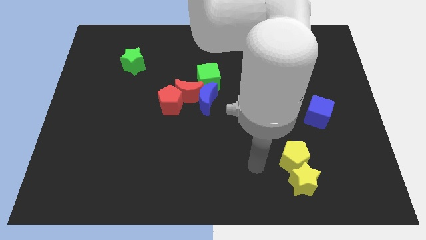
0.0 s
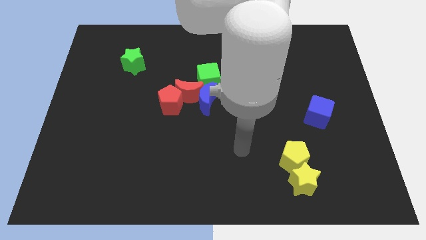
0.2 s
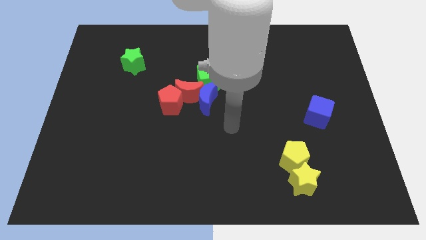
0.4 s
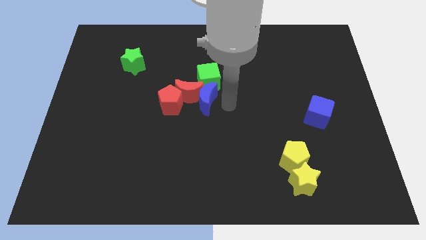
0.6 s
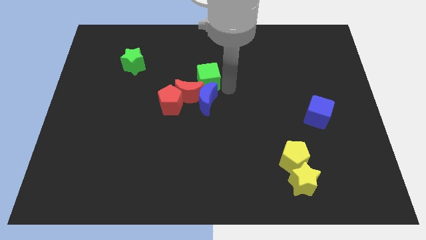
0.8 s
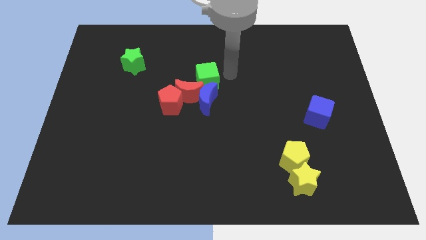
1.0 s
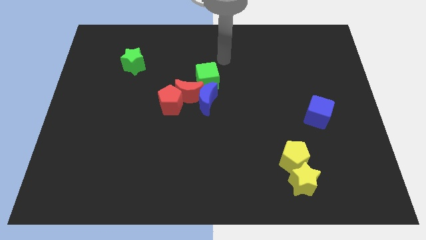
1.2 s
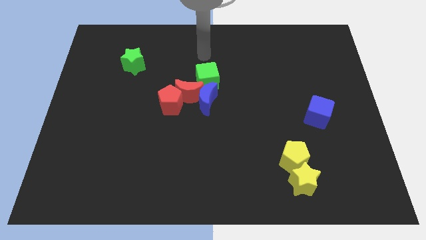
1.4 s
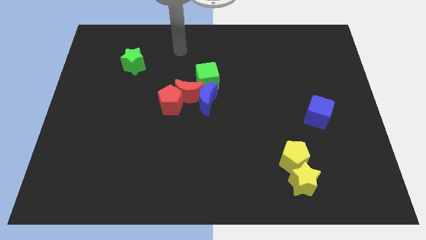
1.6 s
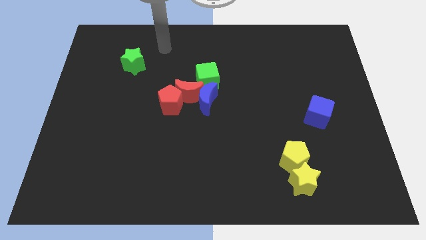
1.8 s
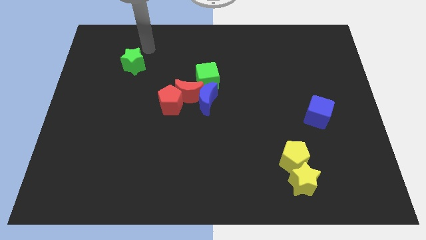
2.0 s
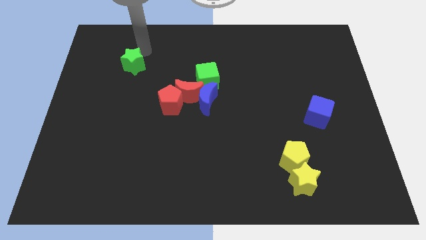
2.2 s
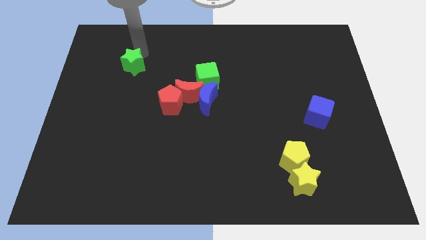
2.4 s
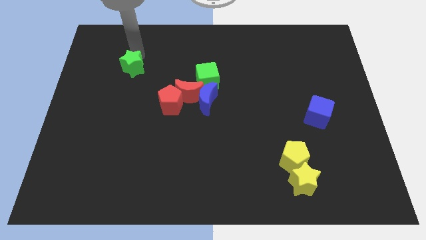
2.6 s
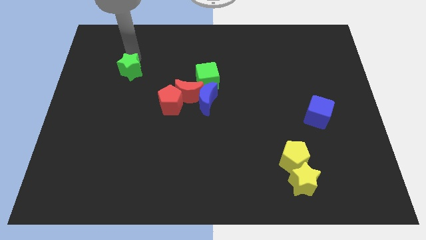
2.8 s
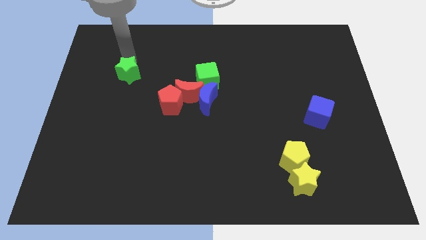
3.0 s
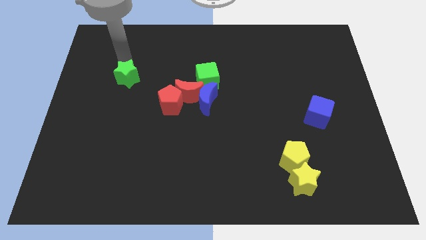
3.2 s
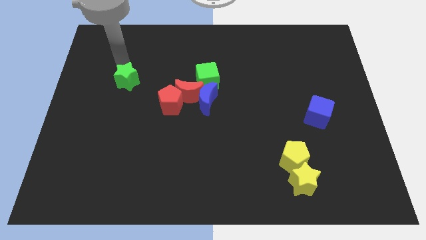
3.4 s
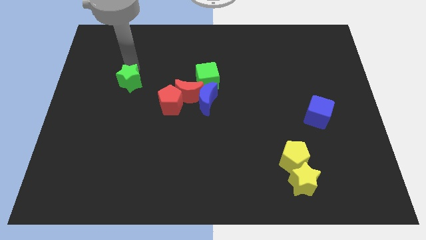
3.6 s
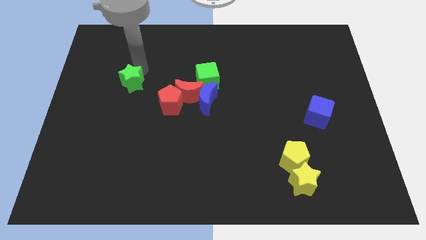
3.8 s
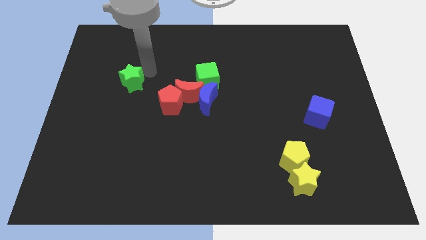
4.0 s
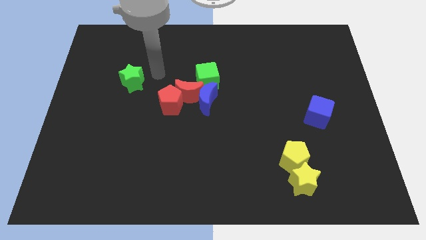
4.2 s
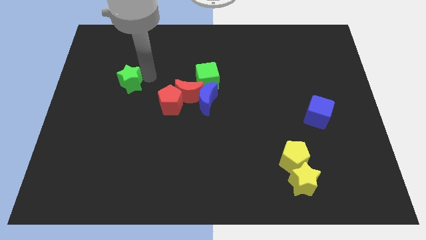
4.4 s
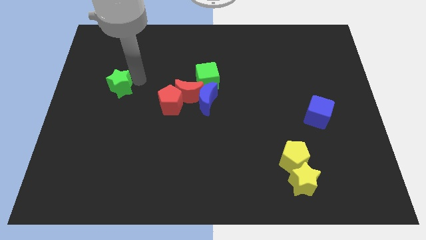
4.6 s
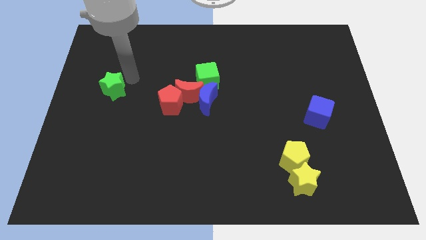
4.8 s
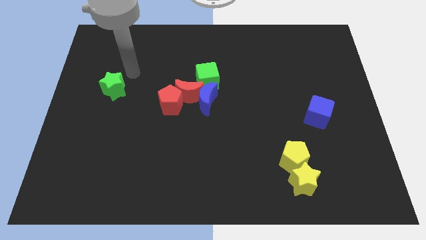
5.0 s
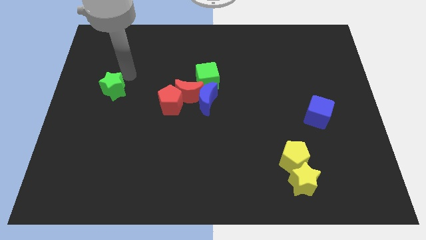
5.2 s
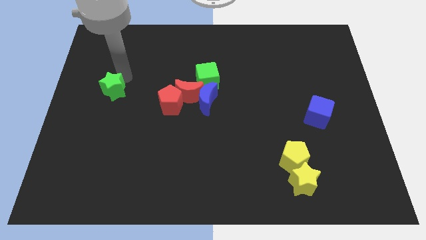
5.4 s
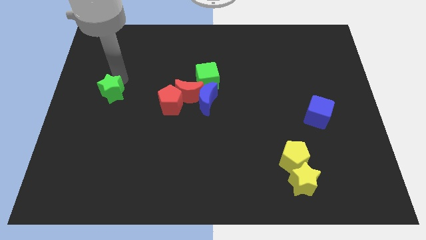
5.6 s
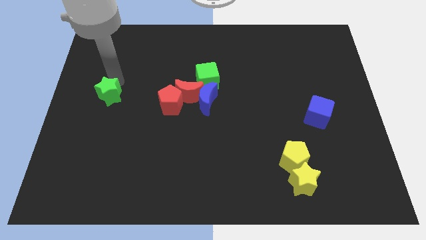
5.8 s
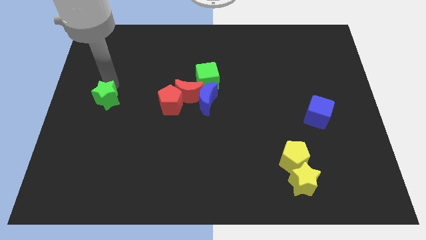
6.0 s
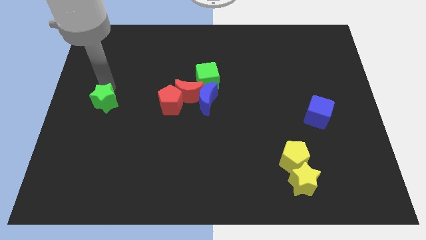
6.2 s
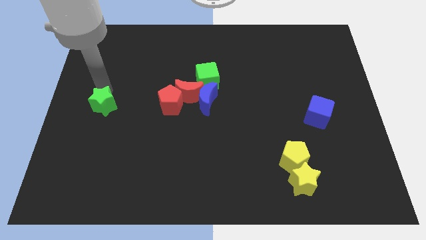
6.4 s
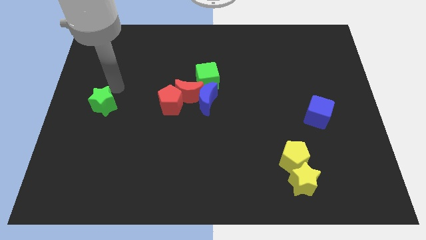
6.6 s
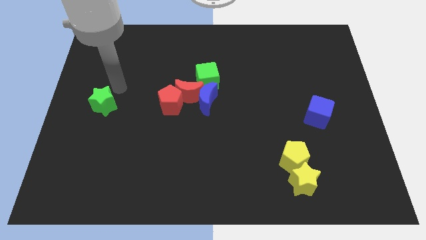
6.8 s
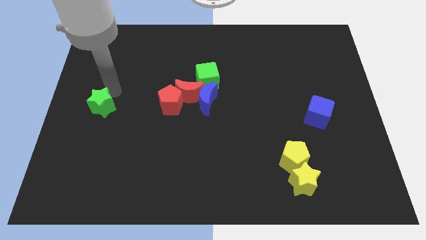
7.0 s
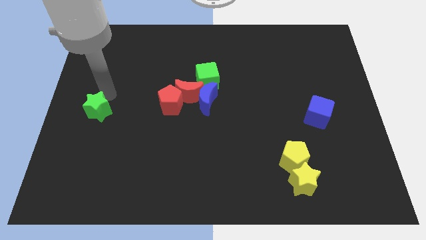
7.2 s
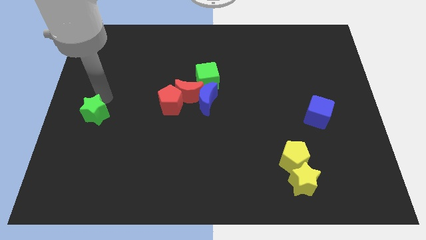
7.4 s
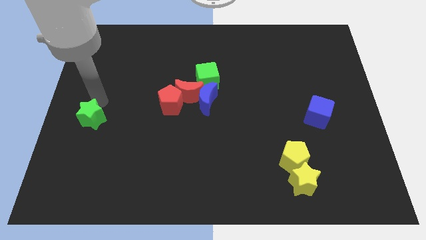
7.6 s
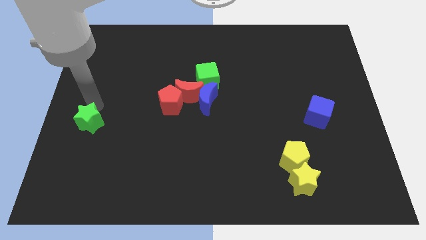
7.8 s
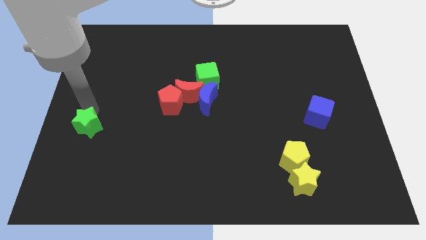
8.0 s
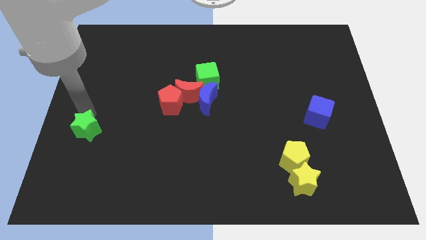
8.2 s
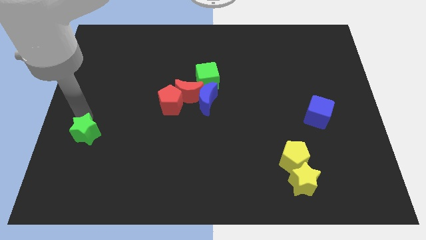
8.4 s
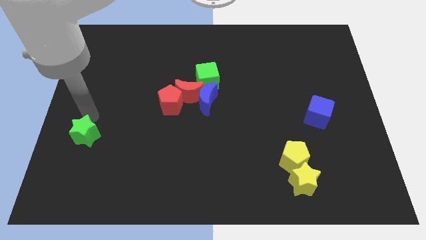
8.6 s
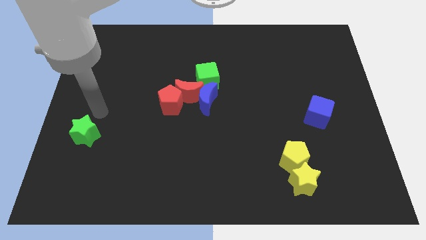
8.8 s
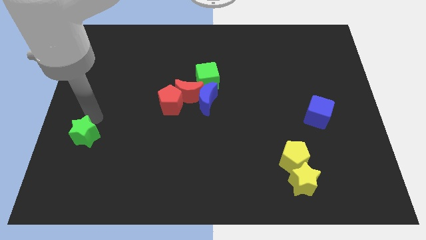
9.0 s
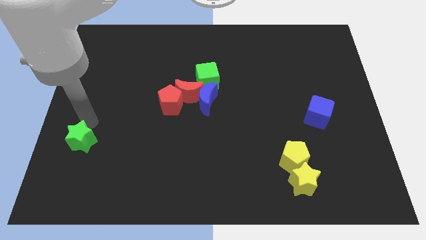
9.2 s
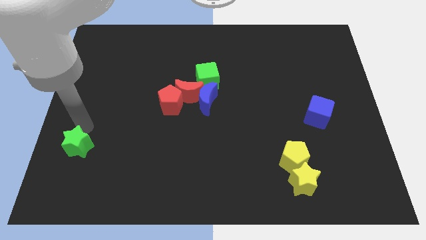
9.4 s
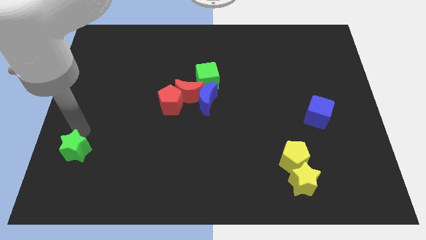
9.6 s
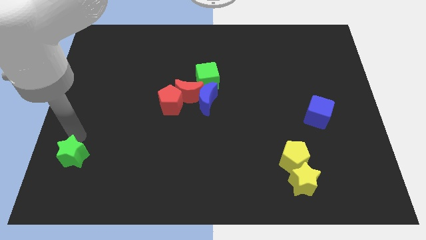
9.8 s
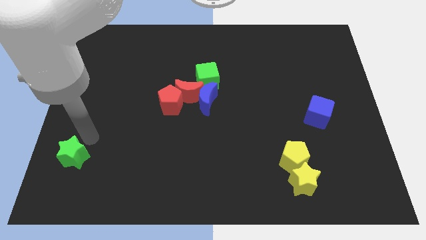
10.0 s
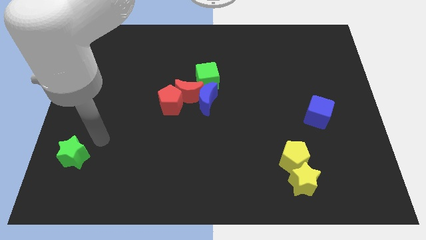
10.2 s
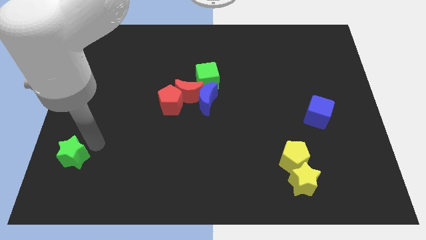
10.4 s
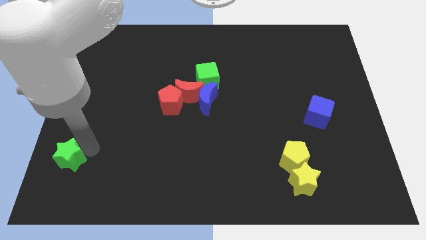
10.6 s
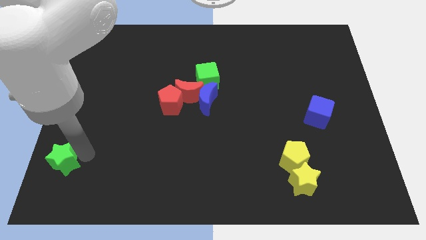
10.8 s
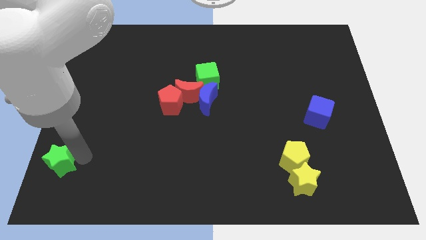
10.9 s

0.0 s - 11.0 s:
push the green star to the bottom left
